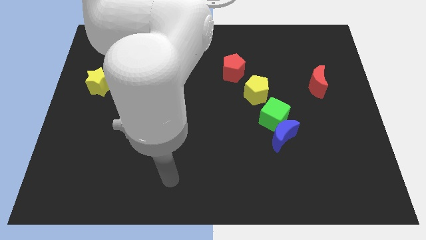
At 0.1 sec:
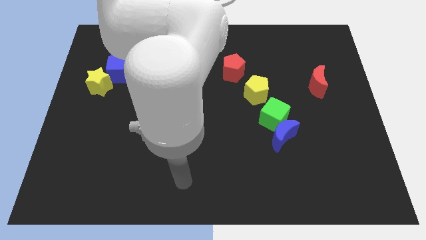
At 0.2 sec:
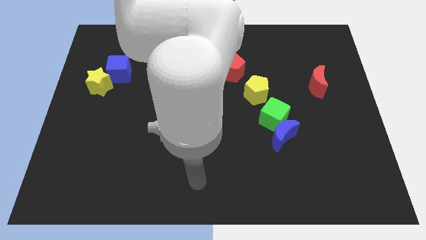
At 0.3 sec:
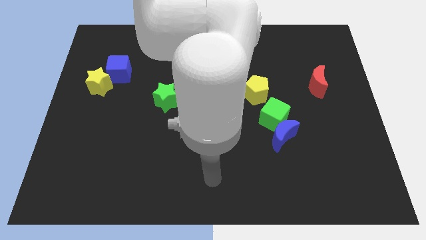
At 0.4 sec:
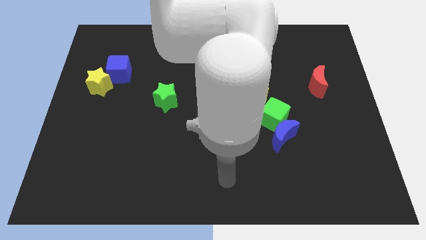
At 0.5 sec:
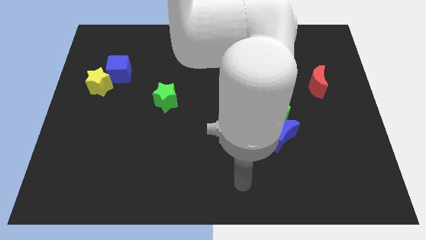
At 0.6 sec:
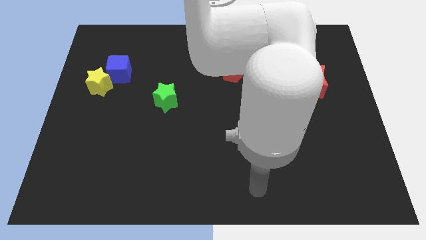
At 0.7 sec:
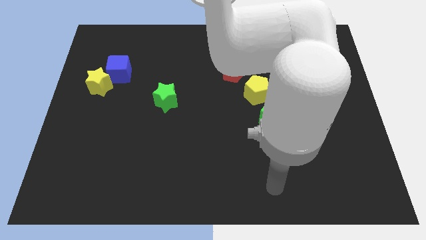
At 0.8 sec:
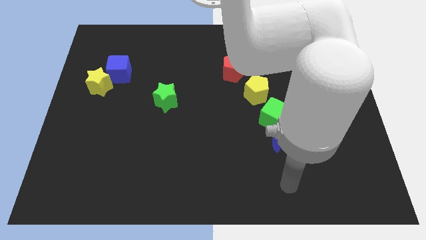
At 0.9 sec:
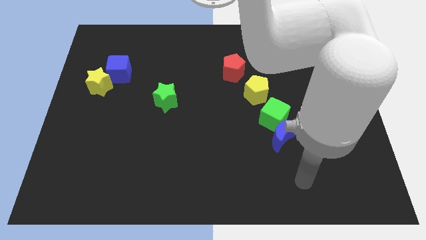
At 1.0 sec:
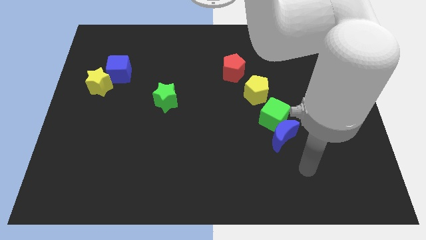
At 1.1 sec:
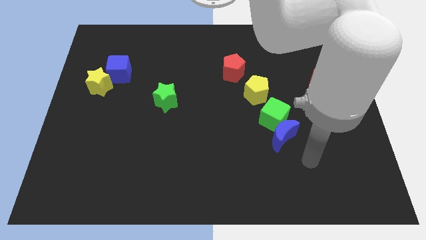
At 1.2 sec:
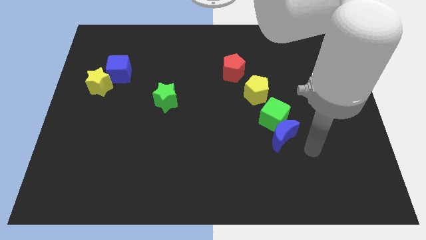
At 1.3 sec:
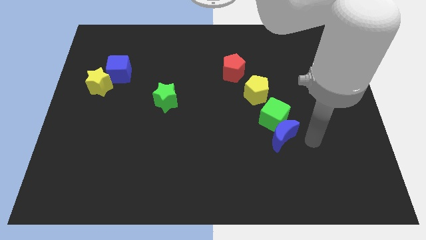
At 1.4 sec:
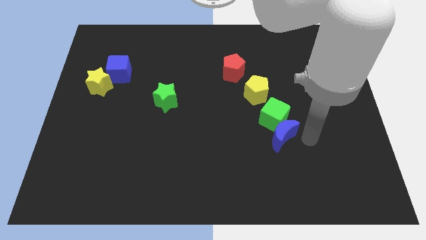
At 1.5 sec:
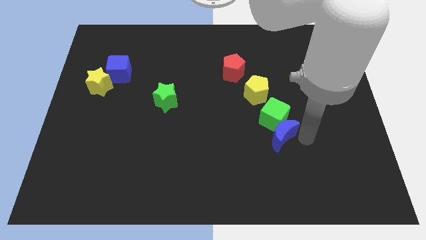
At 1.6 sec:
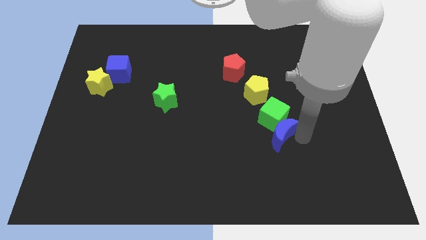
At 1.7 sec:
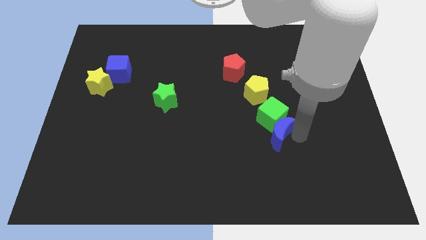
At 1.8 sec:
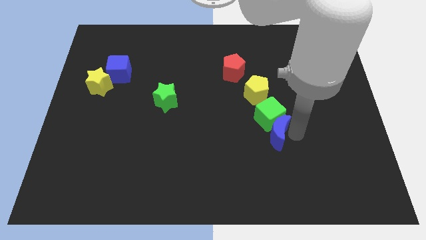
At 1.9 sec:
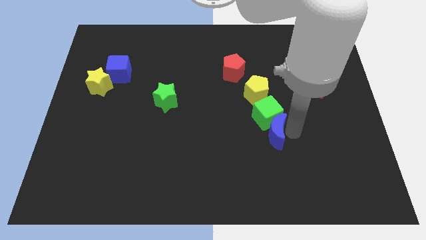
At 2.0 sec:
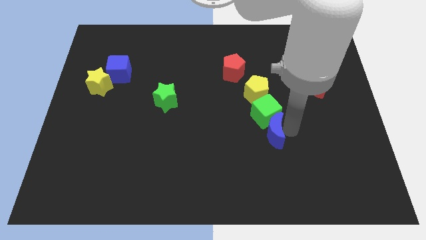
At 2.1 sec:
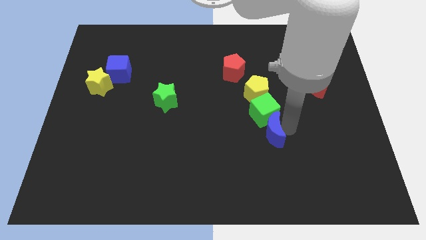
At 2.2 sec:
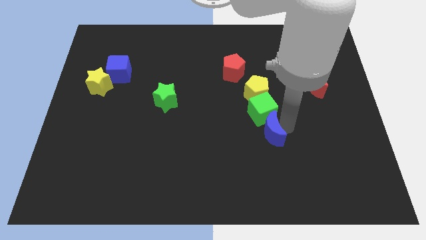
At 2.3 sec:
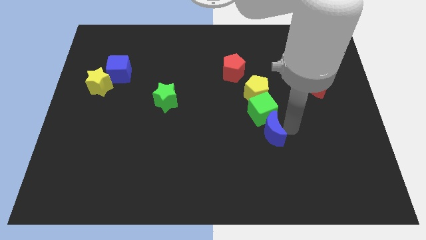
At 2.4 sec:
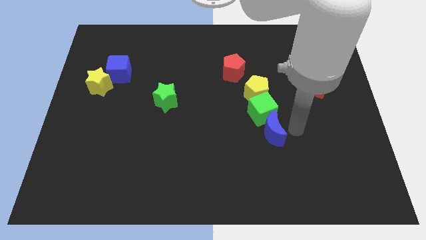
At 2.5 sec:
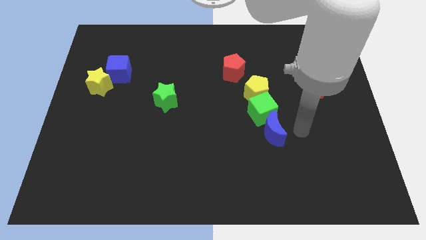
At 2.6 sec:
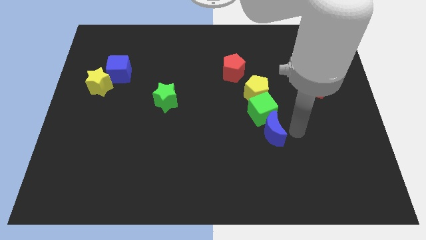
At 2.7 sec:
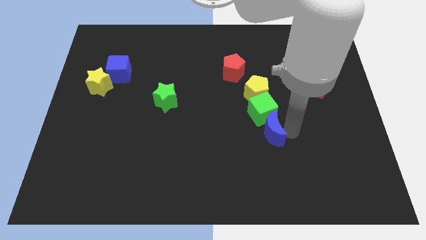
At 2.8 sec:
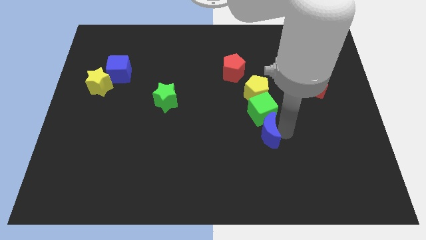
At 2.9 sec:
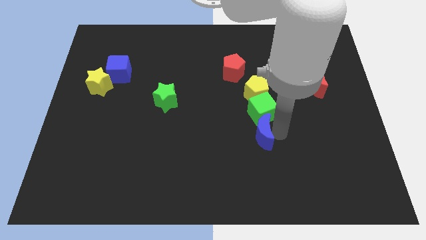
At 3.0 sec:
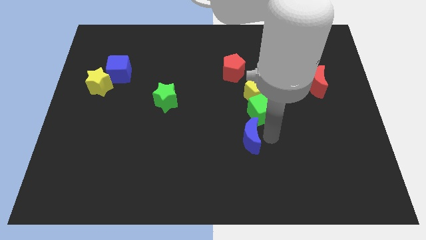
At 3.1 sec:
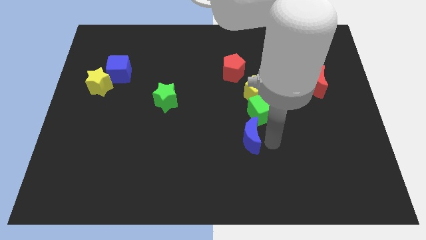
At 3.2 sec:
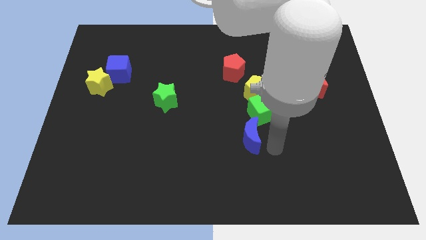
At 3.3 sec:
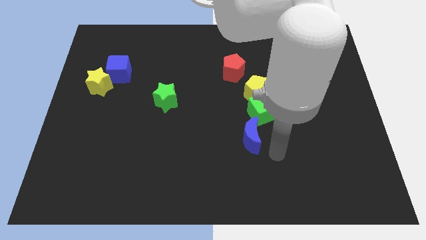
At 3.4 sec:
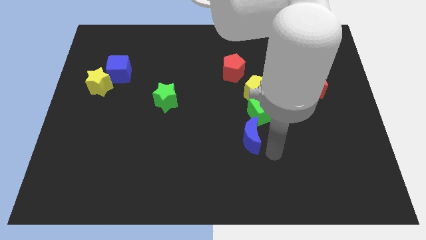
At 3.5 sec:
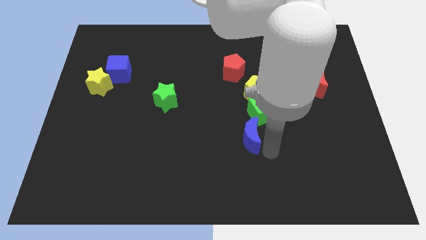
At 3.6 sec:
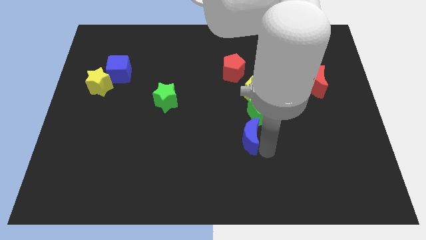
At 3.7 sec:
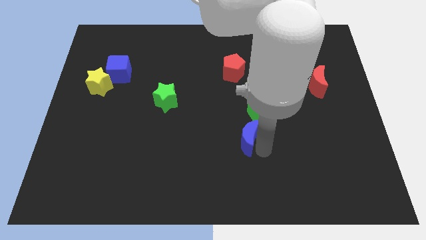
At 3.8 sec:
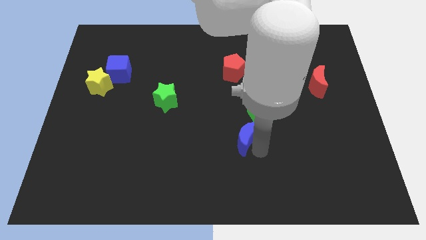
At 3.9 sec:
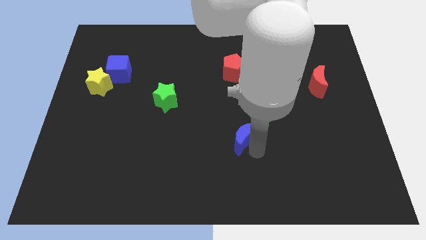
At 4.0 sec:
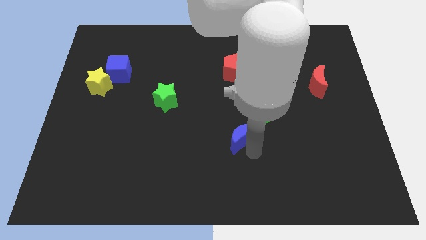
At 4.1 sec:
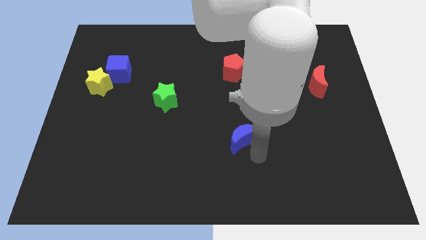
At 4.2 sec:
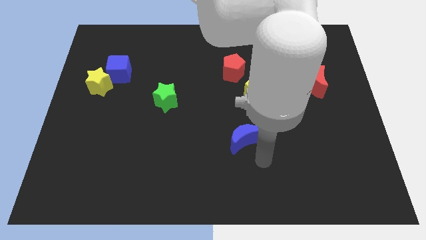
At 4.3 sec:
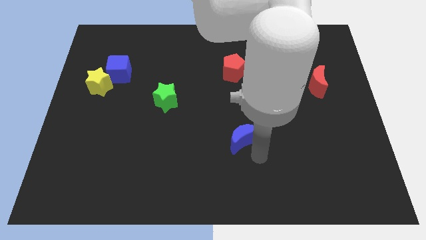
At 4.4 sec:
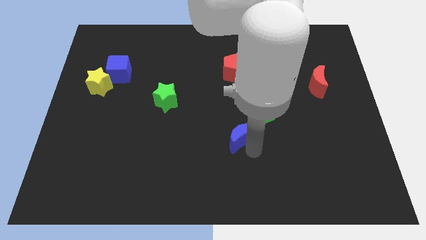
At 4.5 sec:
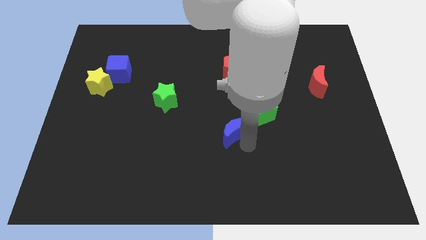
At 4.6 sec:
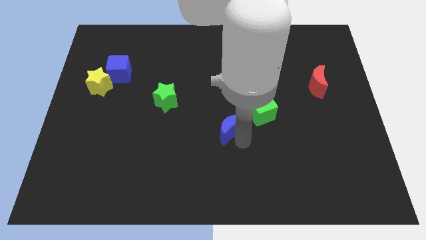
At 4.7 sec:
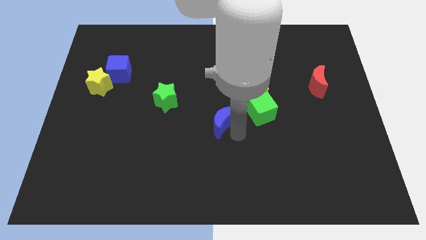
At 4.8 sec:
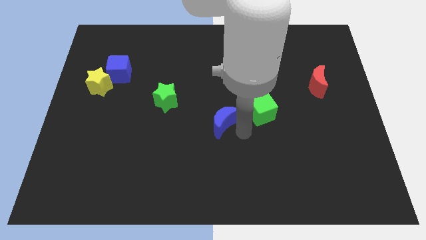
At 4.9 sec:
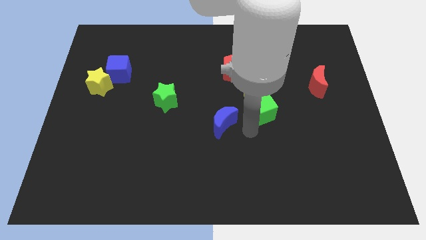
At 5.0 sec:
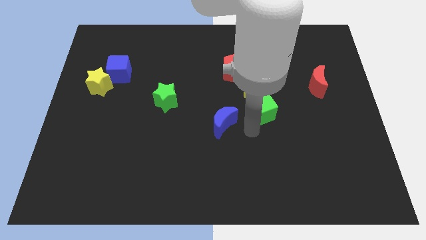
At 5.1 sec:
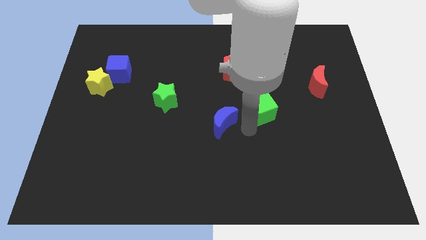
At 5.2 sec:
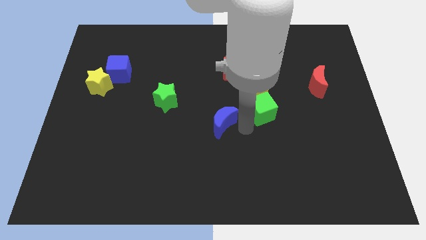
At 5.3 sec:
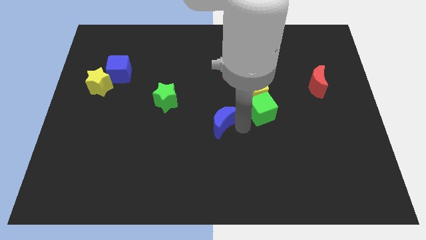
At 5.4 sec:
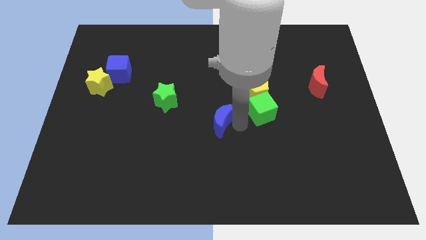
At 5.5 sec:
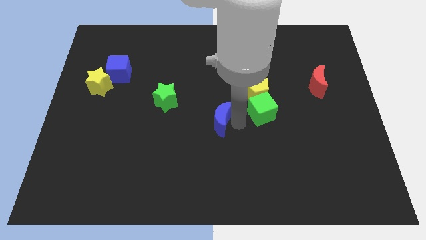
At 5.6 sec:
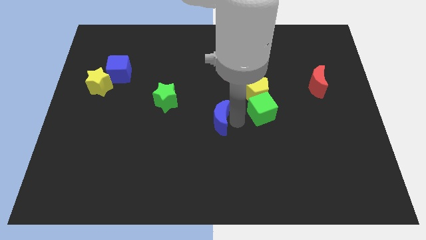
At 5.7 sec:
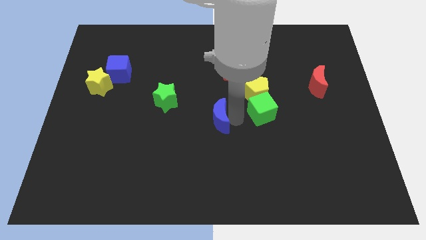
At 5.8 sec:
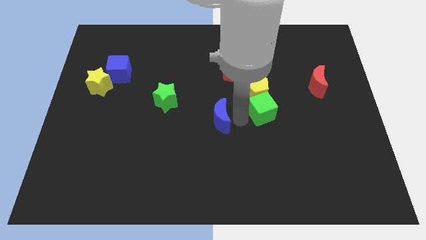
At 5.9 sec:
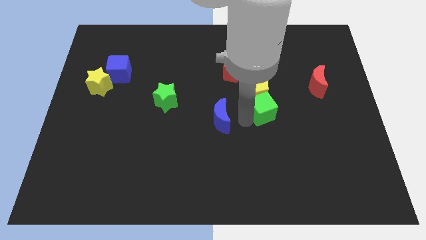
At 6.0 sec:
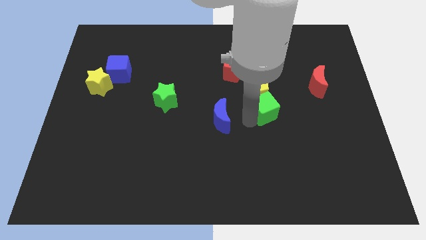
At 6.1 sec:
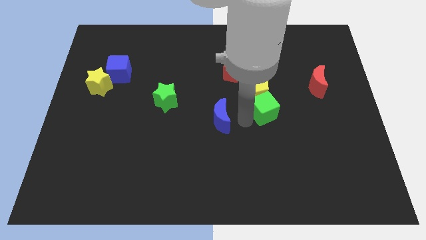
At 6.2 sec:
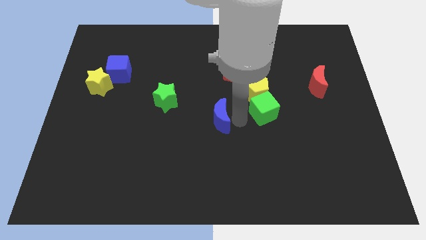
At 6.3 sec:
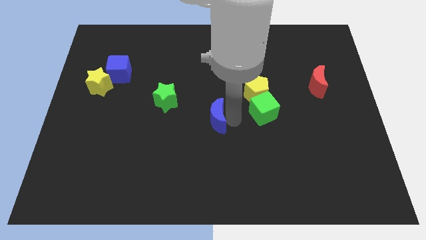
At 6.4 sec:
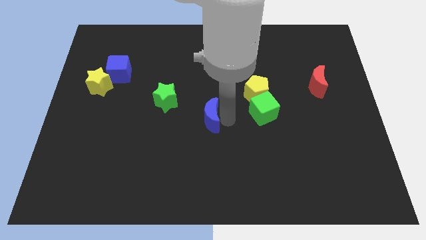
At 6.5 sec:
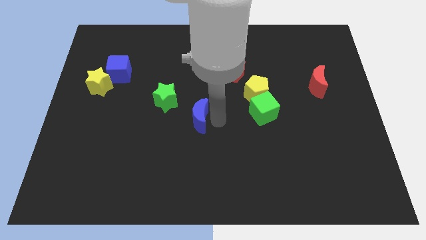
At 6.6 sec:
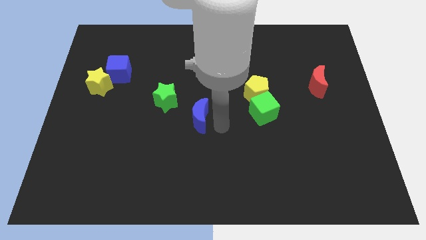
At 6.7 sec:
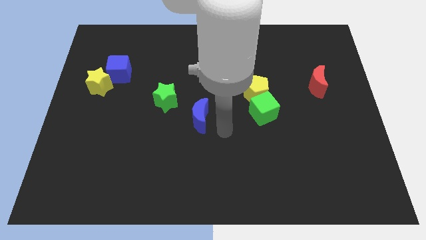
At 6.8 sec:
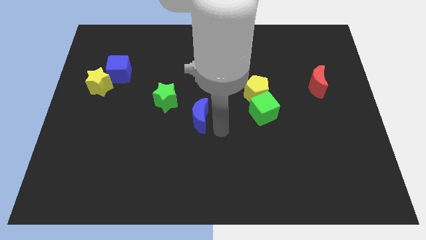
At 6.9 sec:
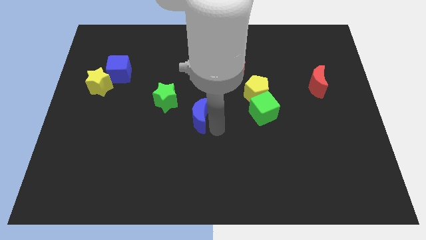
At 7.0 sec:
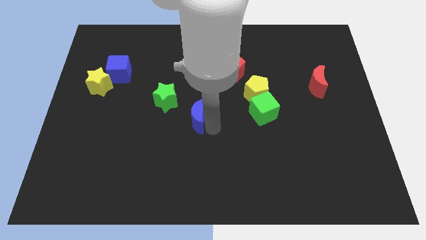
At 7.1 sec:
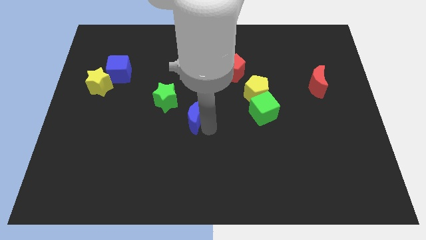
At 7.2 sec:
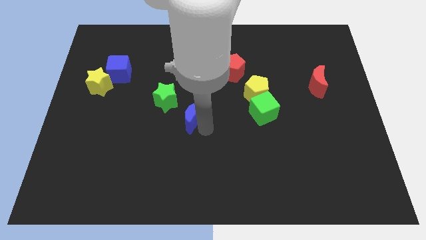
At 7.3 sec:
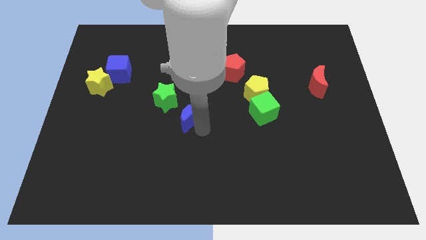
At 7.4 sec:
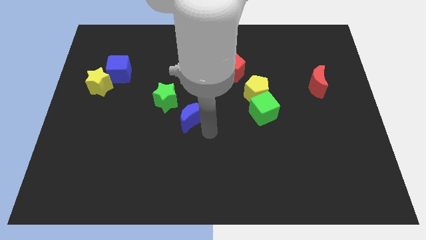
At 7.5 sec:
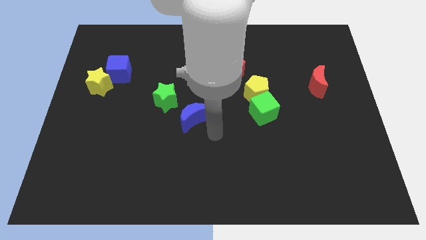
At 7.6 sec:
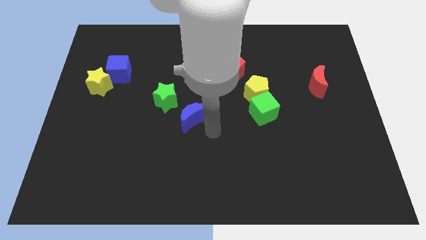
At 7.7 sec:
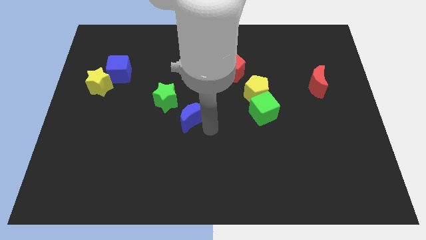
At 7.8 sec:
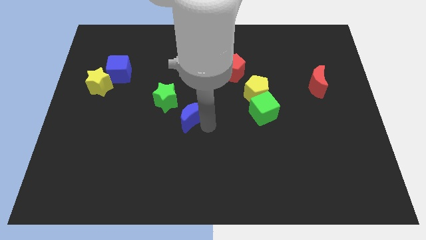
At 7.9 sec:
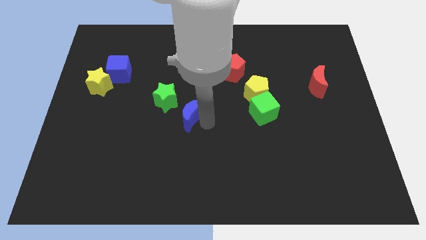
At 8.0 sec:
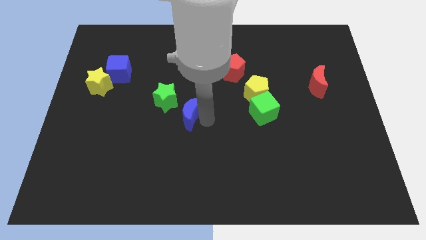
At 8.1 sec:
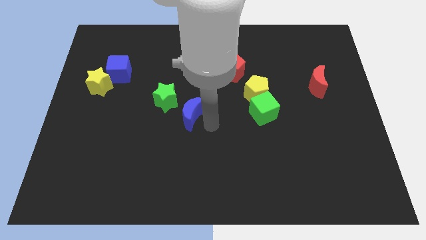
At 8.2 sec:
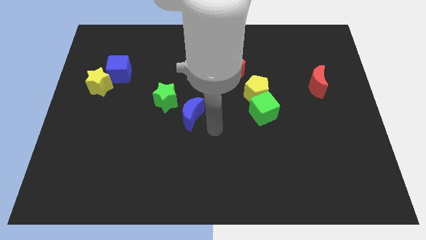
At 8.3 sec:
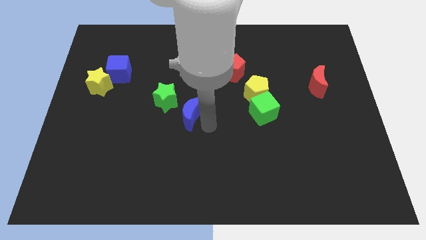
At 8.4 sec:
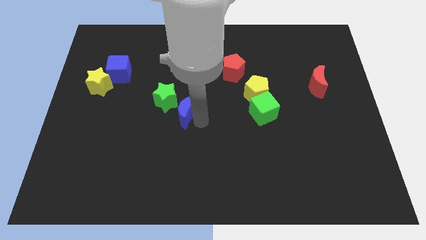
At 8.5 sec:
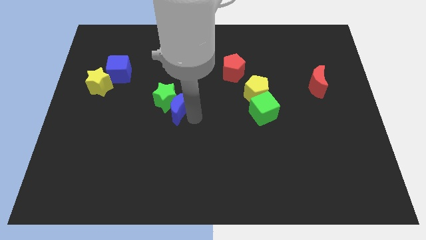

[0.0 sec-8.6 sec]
slide the blue moon next to the green star

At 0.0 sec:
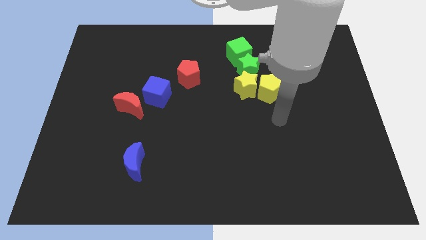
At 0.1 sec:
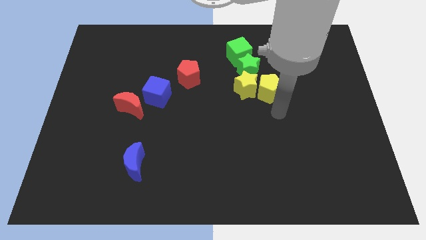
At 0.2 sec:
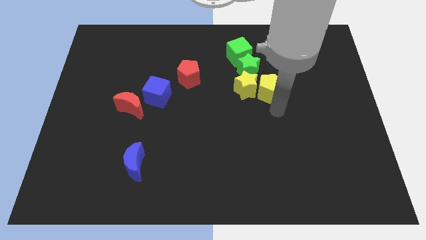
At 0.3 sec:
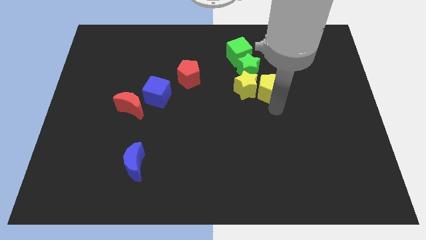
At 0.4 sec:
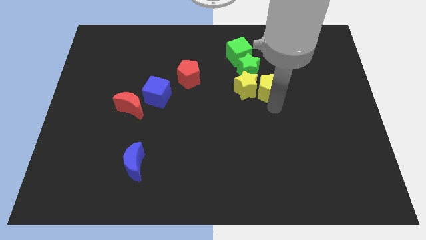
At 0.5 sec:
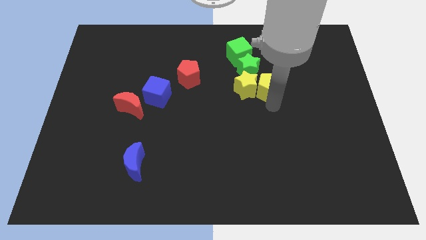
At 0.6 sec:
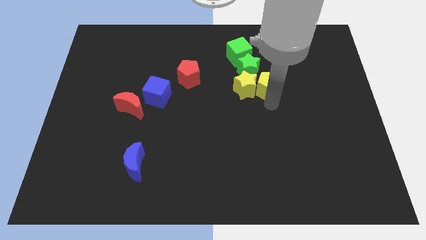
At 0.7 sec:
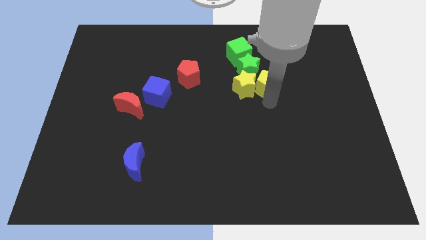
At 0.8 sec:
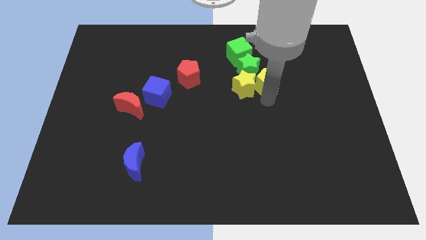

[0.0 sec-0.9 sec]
push the yellow pentagon close to the green star
